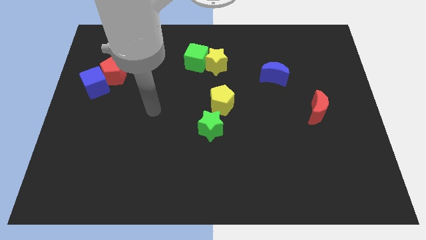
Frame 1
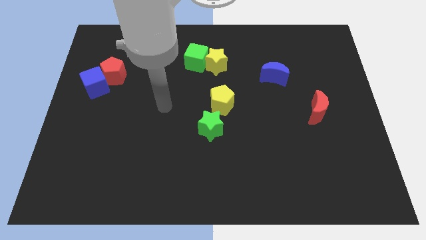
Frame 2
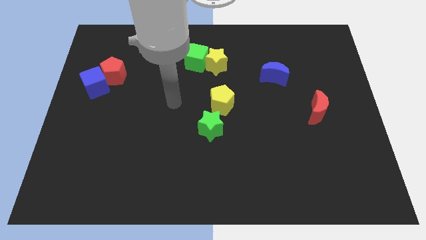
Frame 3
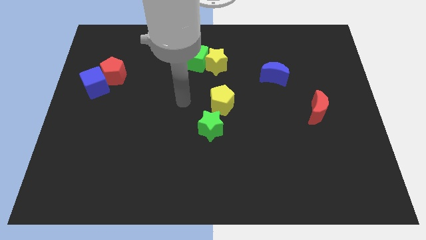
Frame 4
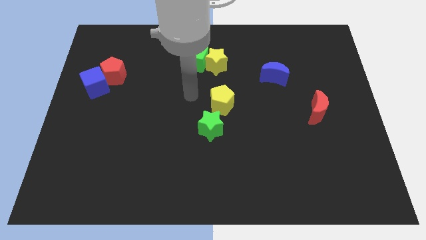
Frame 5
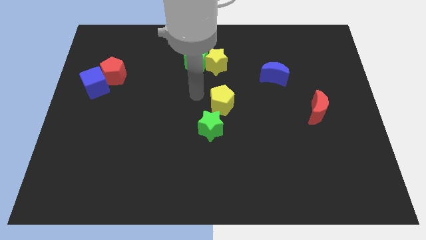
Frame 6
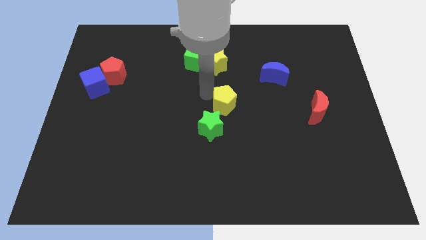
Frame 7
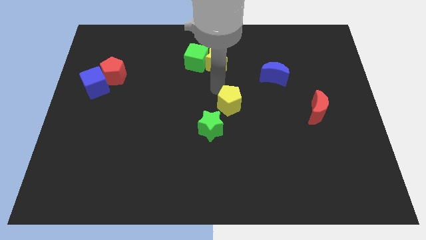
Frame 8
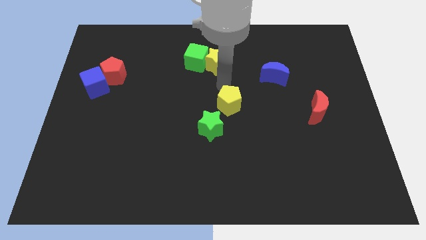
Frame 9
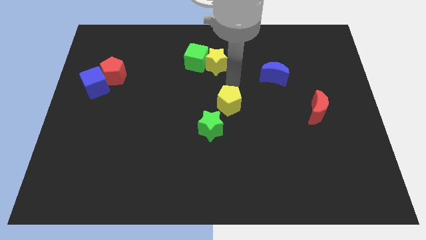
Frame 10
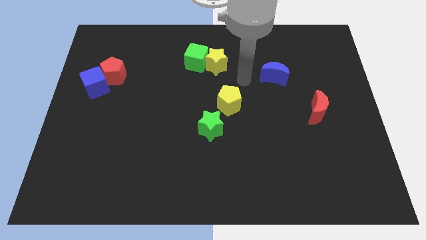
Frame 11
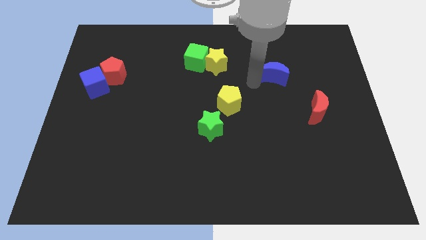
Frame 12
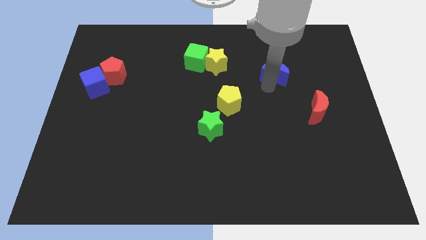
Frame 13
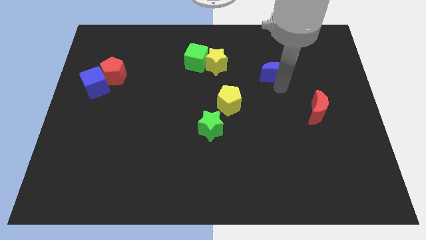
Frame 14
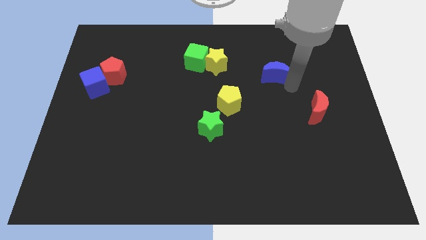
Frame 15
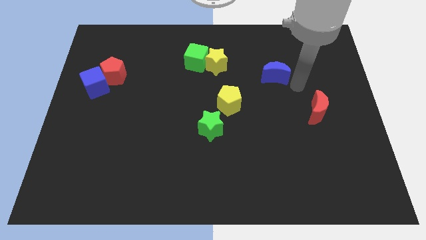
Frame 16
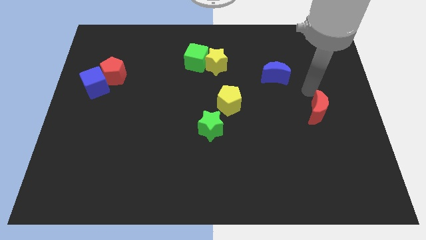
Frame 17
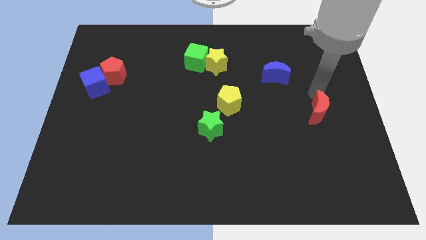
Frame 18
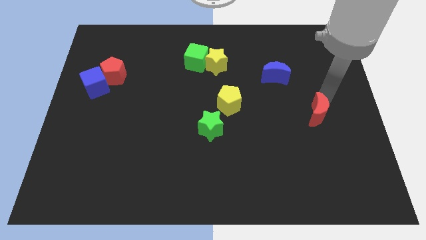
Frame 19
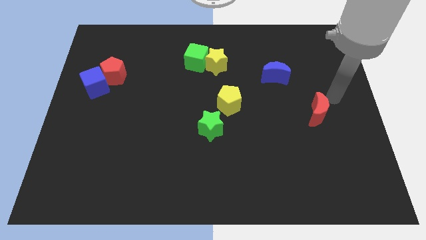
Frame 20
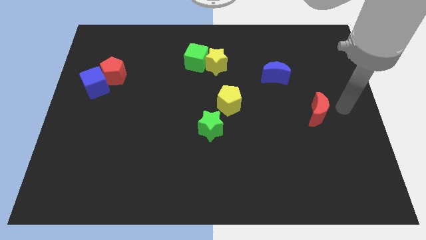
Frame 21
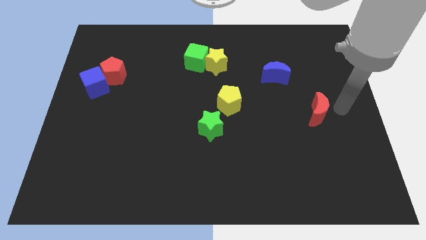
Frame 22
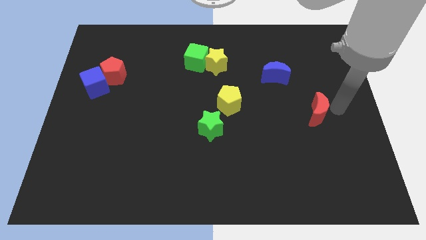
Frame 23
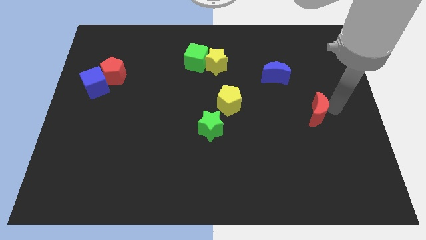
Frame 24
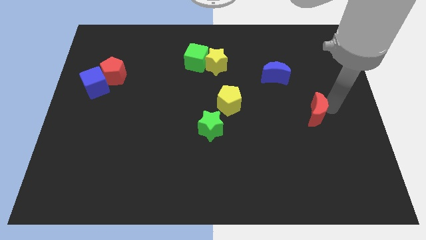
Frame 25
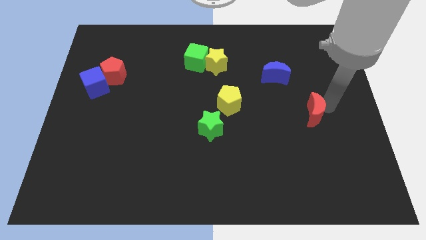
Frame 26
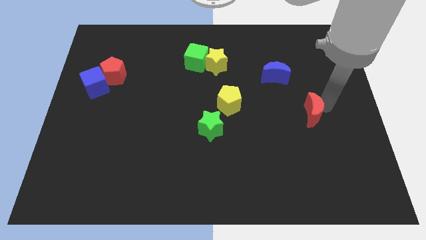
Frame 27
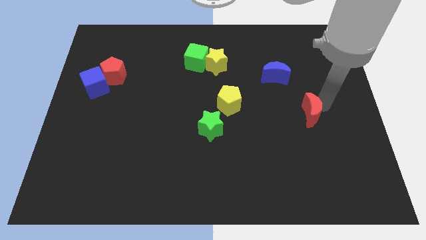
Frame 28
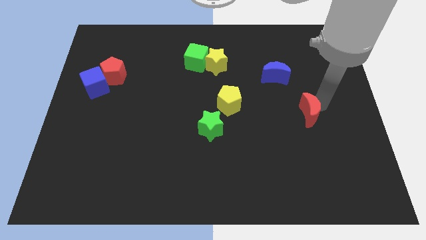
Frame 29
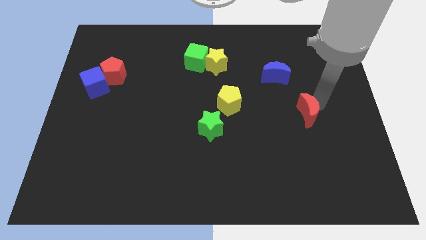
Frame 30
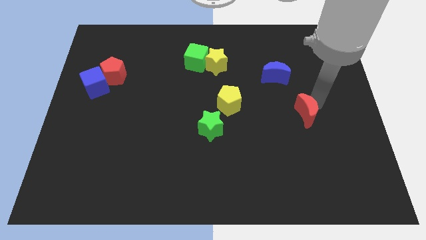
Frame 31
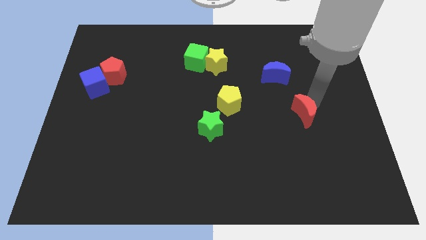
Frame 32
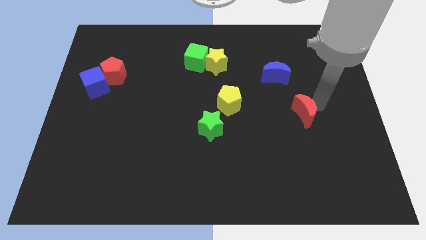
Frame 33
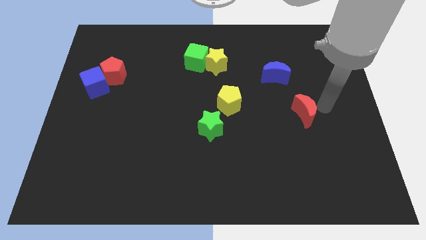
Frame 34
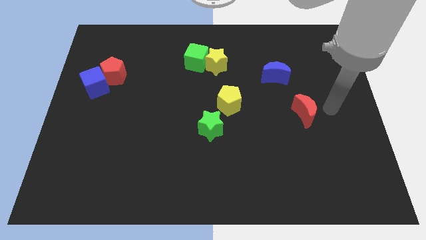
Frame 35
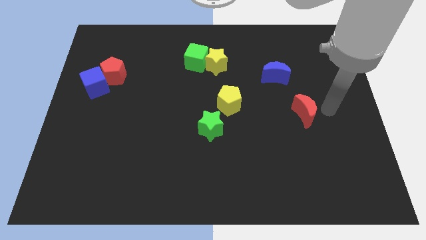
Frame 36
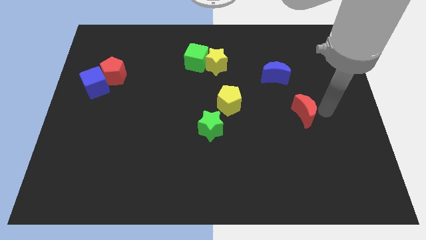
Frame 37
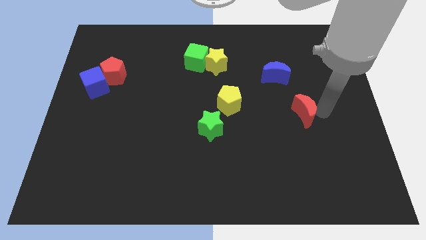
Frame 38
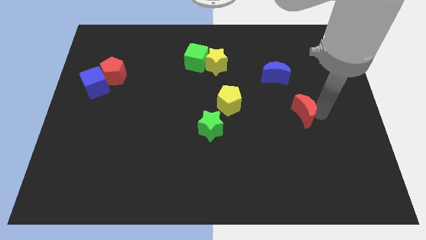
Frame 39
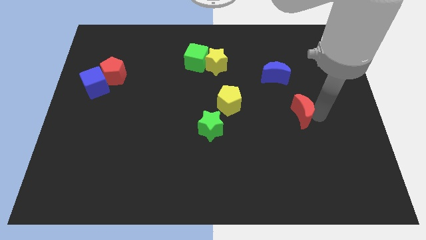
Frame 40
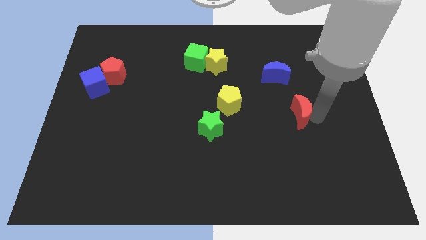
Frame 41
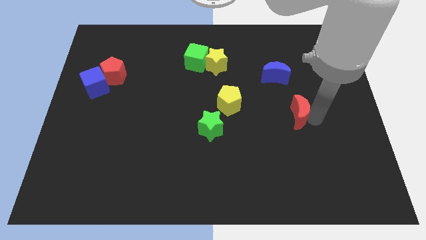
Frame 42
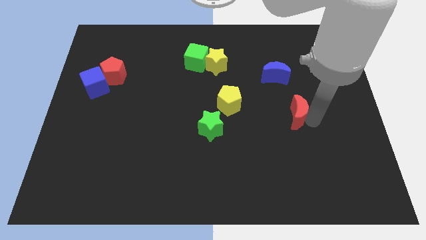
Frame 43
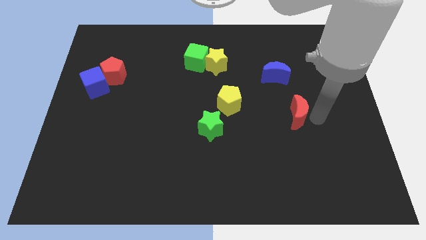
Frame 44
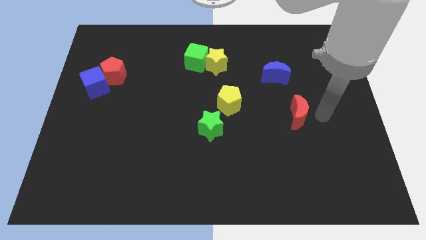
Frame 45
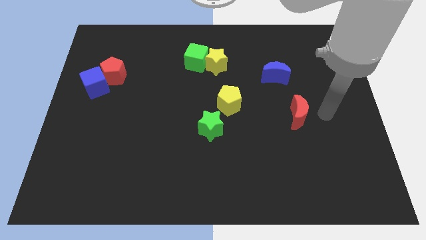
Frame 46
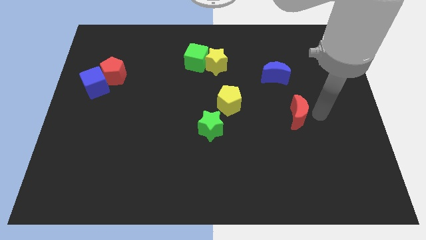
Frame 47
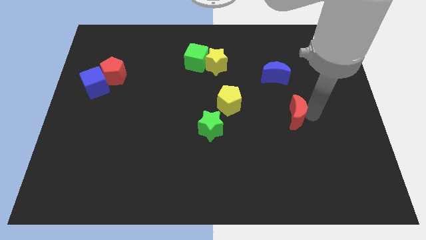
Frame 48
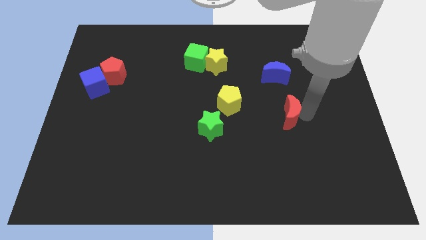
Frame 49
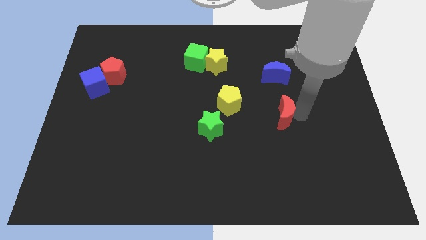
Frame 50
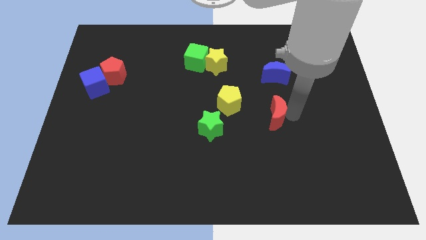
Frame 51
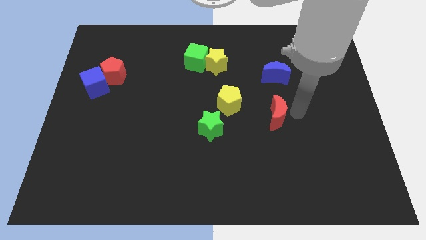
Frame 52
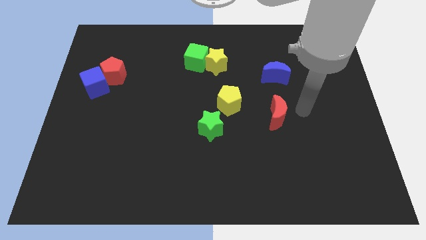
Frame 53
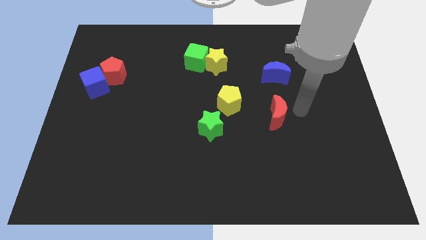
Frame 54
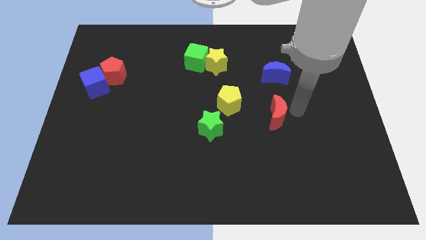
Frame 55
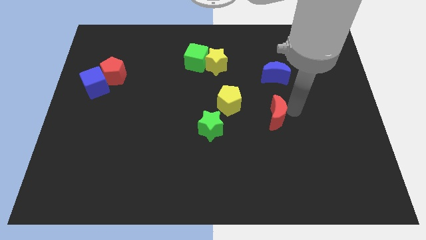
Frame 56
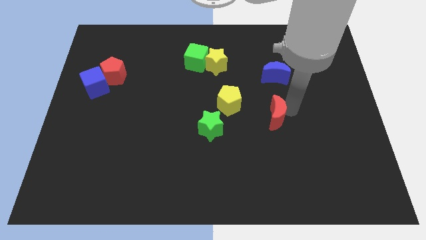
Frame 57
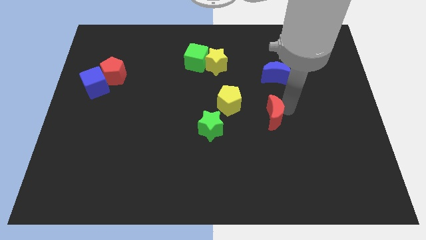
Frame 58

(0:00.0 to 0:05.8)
put the red moon to the bottom right side of the yellow pentagon
